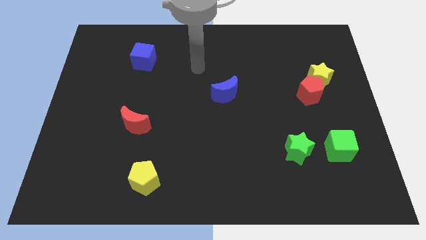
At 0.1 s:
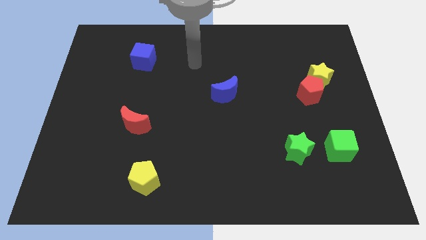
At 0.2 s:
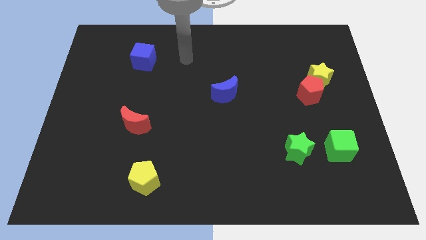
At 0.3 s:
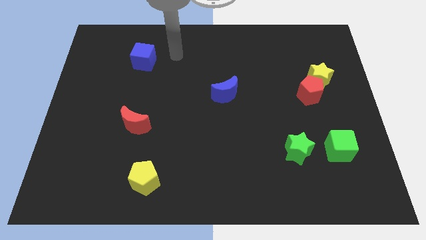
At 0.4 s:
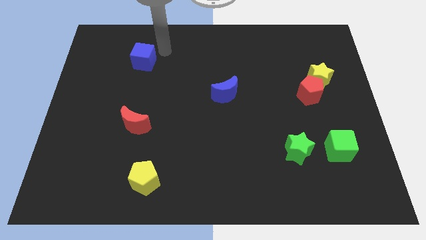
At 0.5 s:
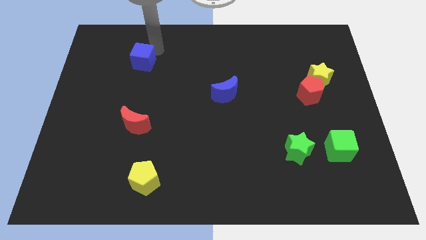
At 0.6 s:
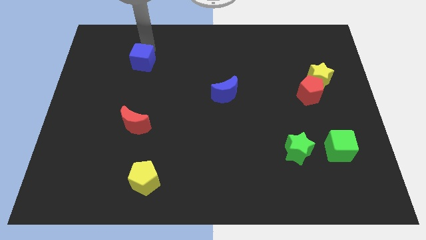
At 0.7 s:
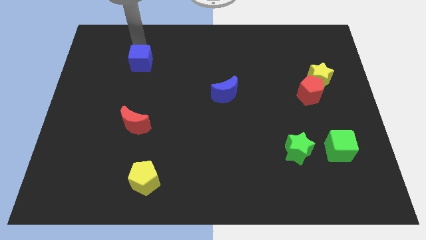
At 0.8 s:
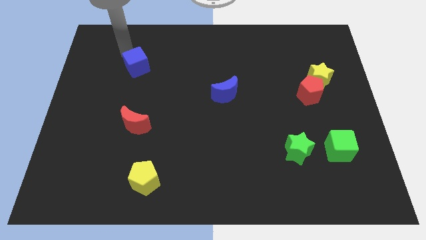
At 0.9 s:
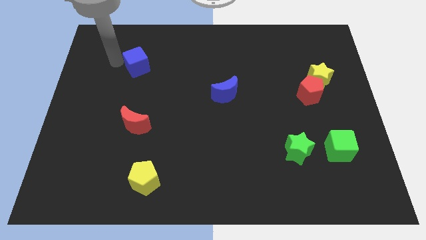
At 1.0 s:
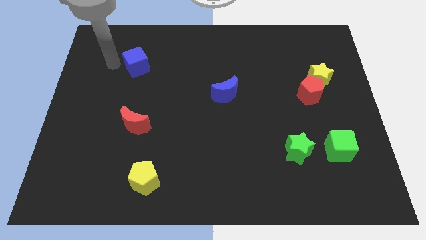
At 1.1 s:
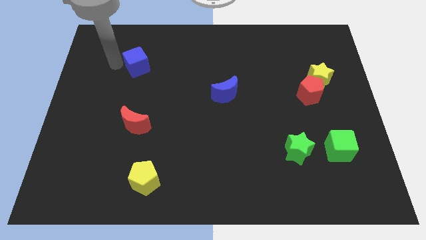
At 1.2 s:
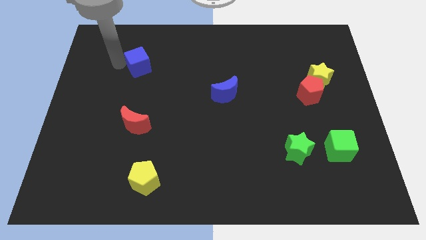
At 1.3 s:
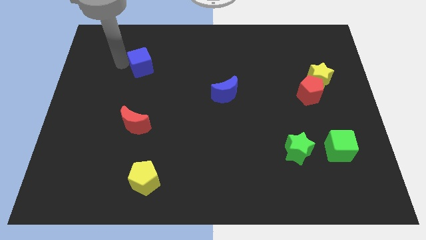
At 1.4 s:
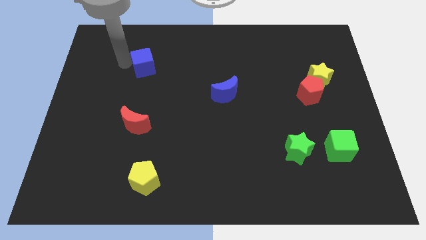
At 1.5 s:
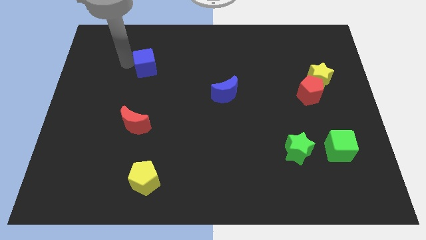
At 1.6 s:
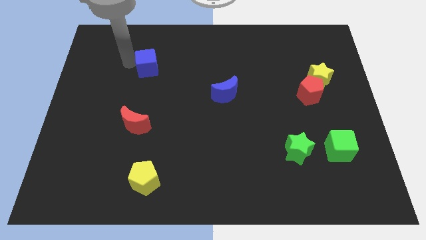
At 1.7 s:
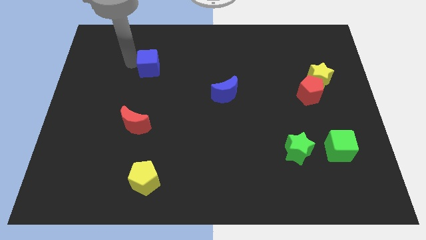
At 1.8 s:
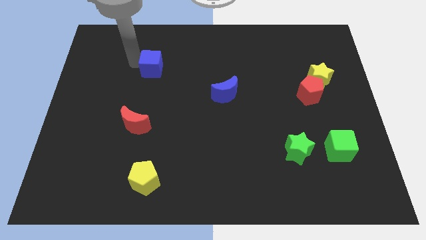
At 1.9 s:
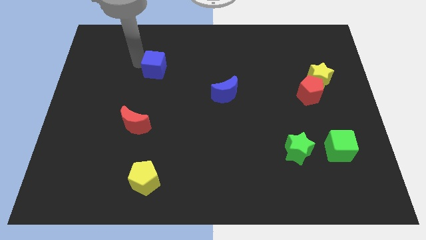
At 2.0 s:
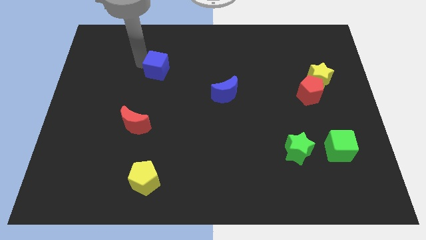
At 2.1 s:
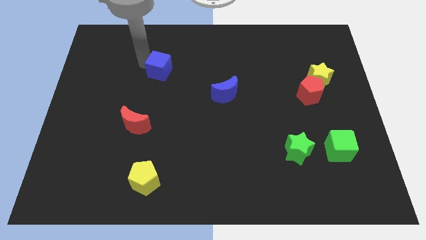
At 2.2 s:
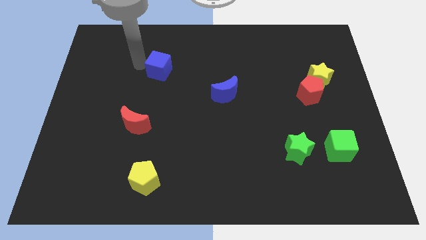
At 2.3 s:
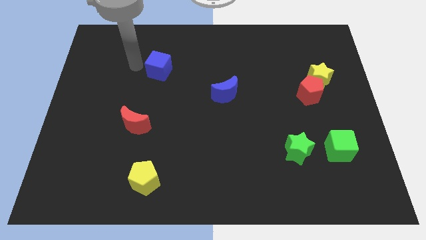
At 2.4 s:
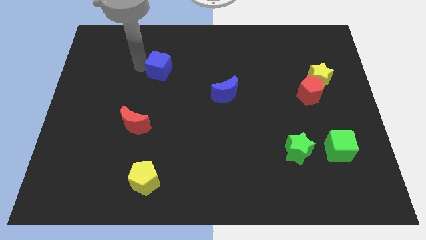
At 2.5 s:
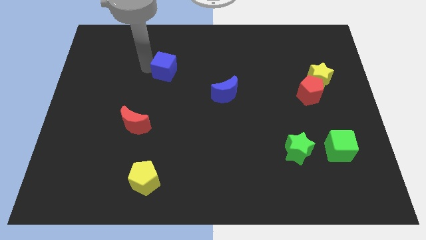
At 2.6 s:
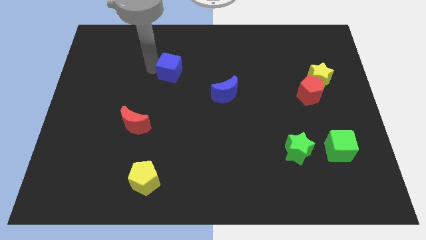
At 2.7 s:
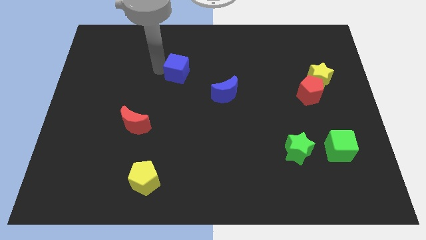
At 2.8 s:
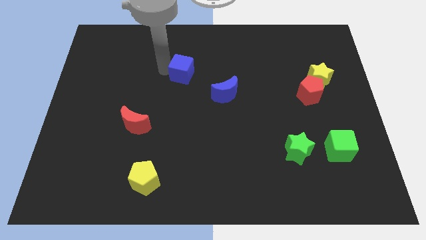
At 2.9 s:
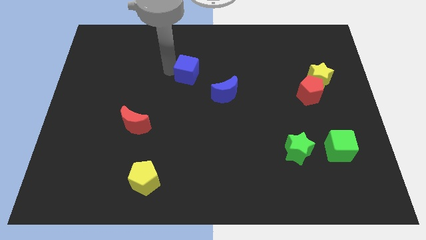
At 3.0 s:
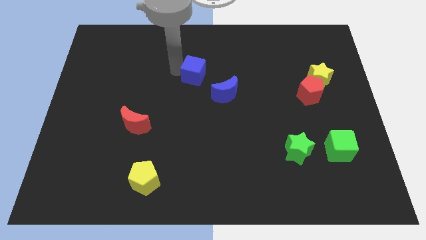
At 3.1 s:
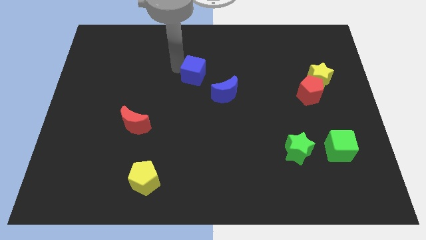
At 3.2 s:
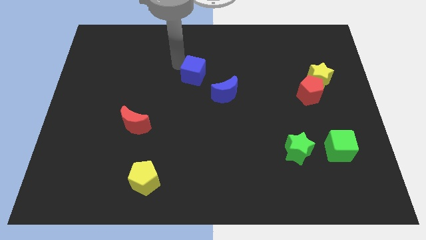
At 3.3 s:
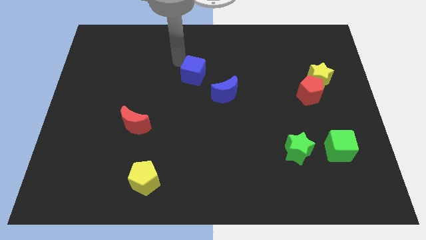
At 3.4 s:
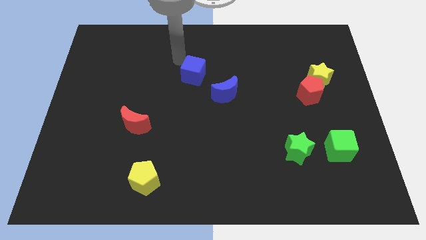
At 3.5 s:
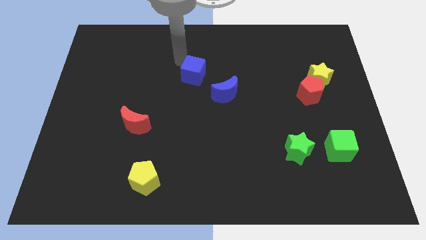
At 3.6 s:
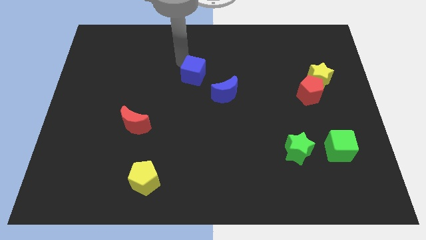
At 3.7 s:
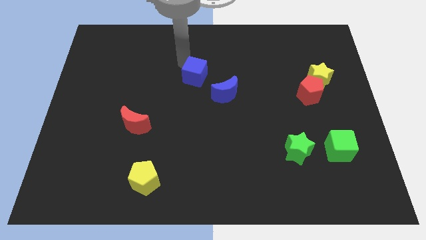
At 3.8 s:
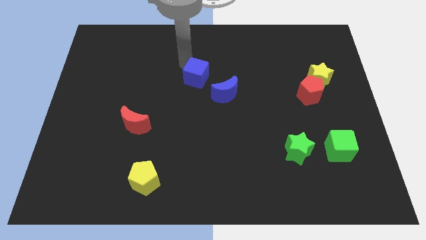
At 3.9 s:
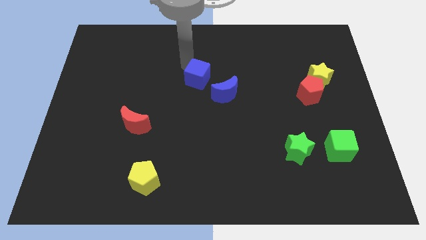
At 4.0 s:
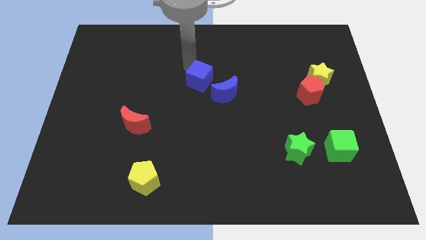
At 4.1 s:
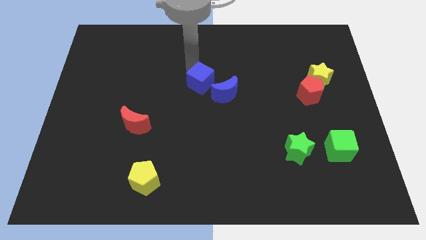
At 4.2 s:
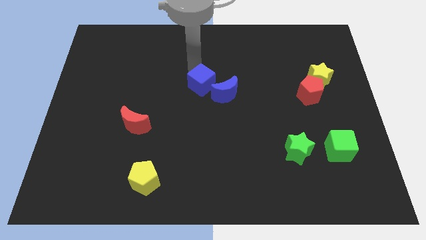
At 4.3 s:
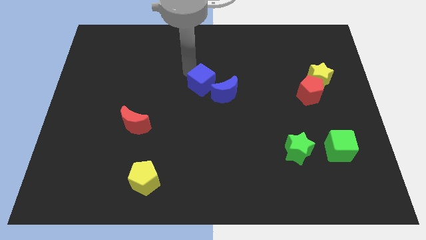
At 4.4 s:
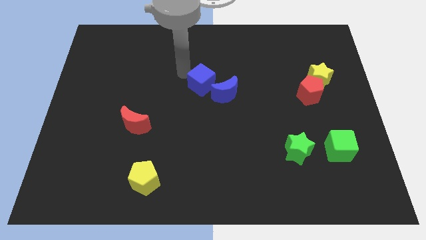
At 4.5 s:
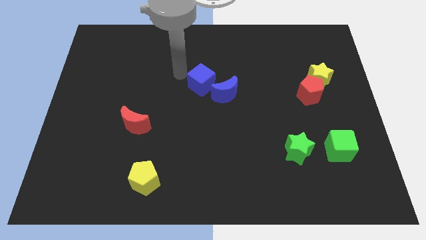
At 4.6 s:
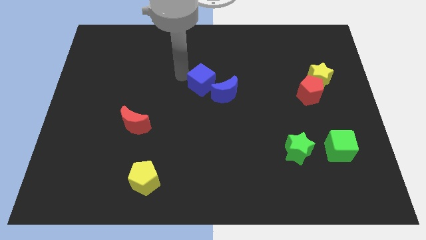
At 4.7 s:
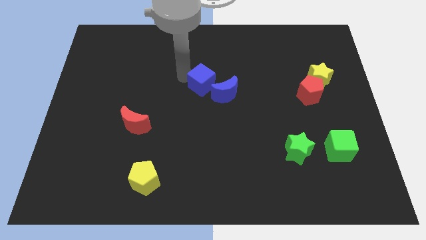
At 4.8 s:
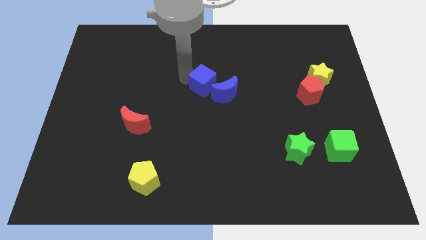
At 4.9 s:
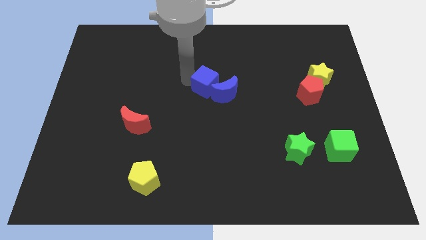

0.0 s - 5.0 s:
put the blue cube next to the blue moon

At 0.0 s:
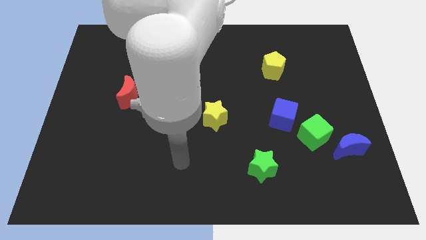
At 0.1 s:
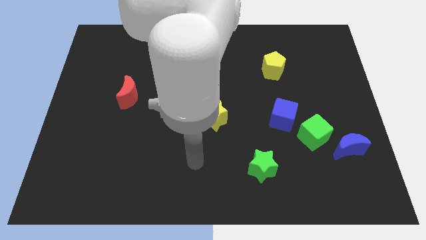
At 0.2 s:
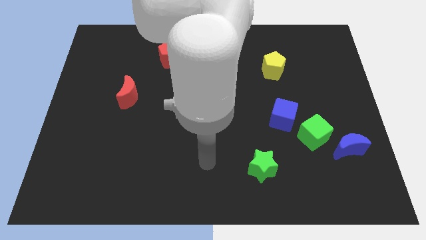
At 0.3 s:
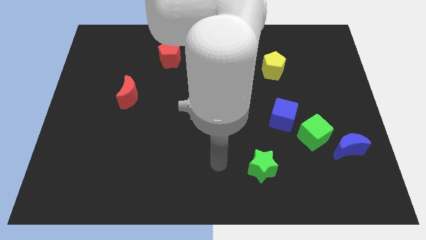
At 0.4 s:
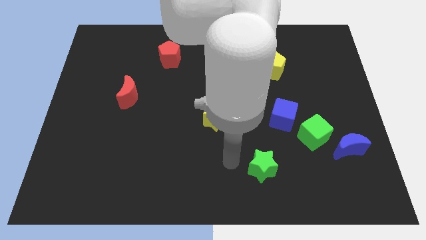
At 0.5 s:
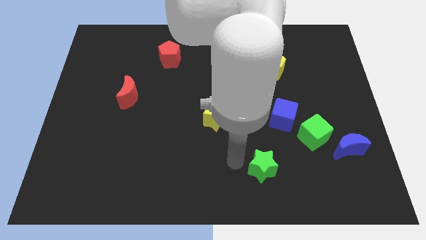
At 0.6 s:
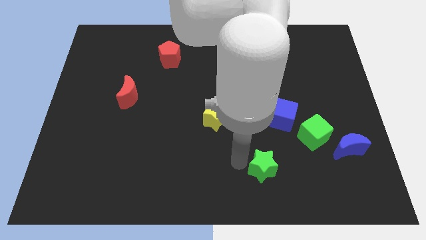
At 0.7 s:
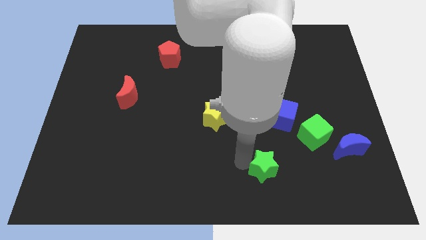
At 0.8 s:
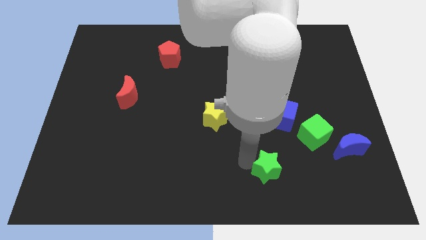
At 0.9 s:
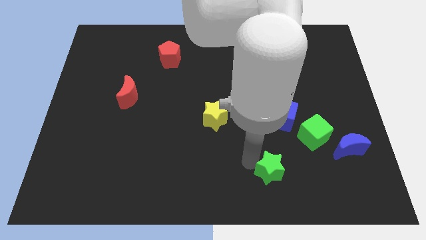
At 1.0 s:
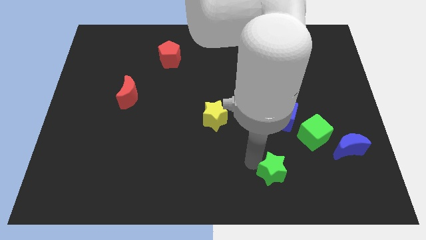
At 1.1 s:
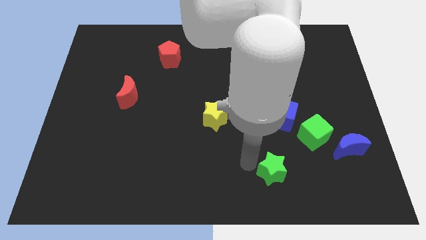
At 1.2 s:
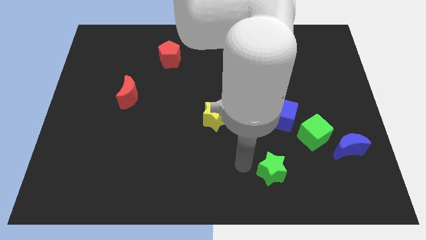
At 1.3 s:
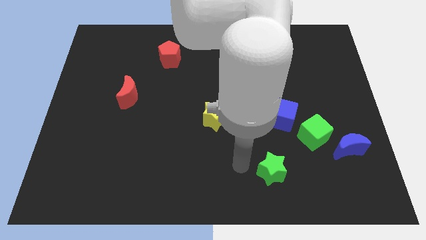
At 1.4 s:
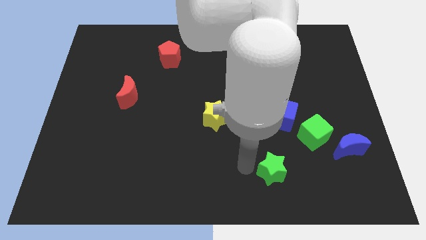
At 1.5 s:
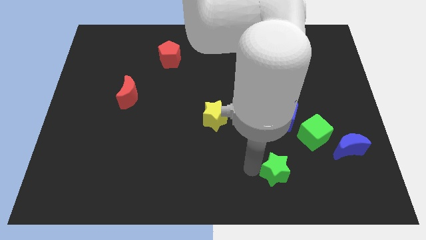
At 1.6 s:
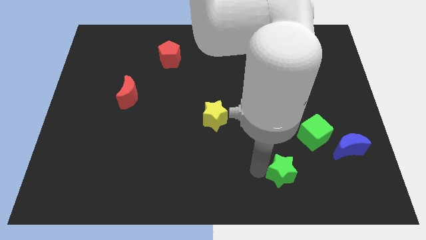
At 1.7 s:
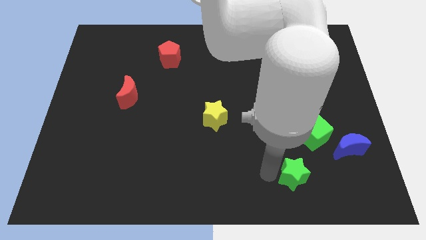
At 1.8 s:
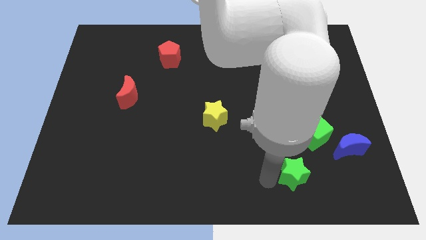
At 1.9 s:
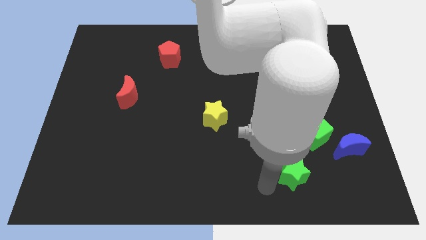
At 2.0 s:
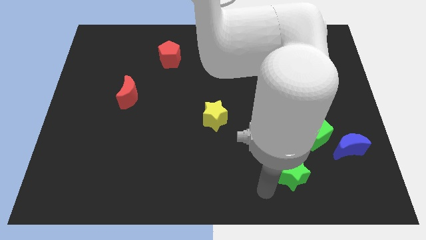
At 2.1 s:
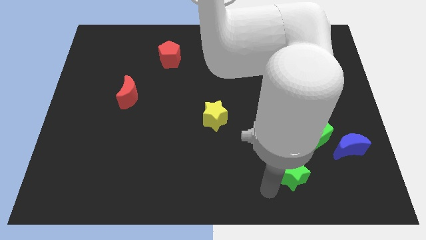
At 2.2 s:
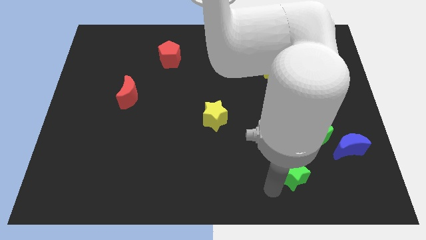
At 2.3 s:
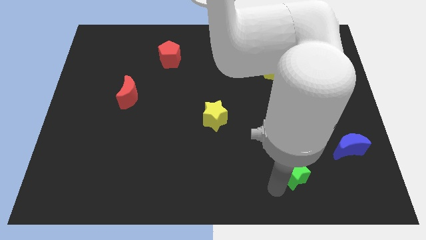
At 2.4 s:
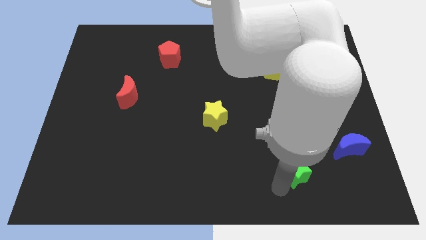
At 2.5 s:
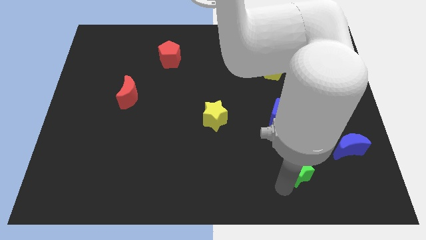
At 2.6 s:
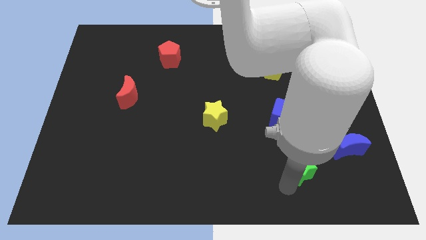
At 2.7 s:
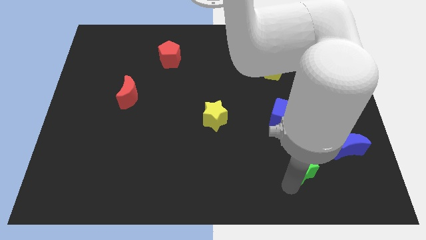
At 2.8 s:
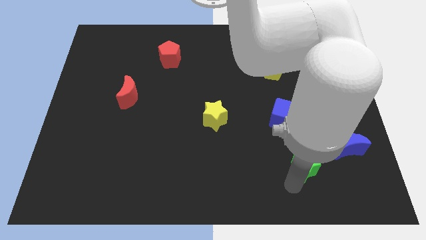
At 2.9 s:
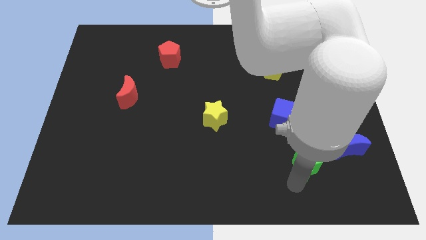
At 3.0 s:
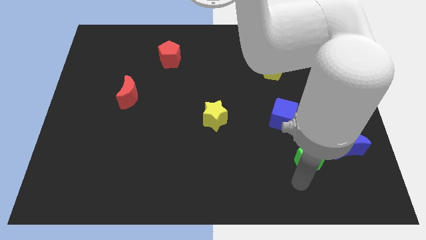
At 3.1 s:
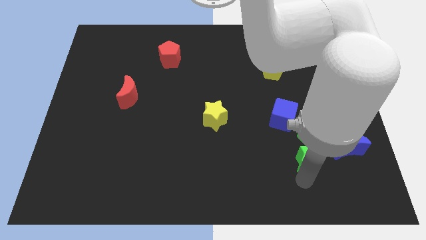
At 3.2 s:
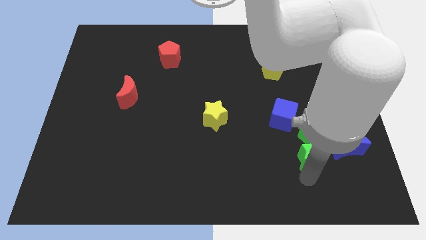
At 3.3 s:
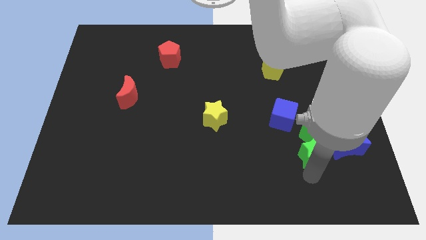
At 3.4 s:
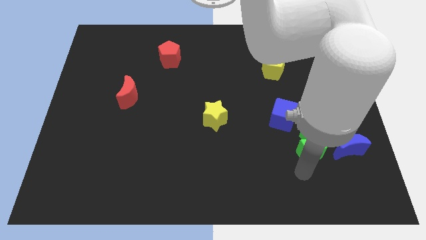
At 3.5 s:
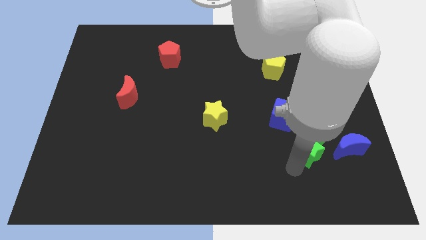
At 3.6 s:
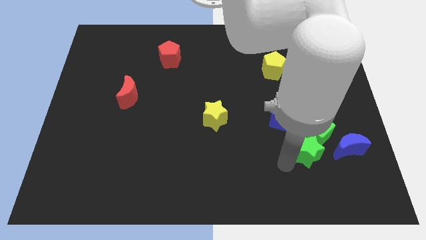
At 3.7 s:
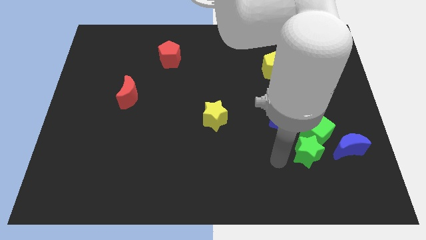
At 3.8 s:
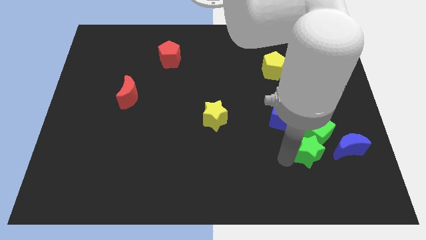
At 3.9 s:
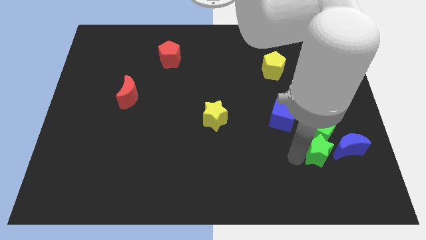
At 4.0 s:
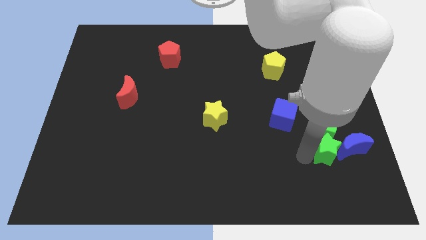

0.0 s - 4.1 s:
push the green star to the blue moon
